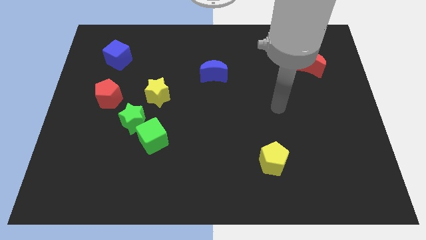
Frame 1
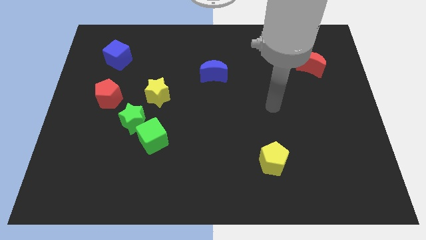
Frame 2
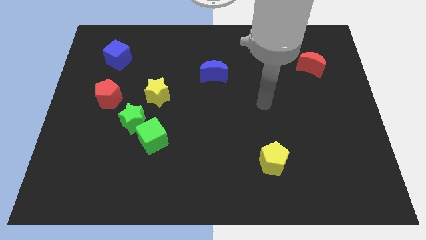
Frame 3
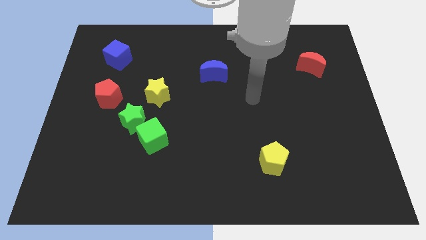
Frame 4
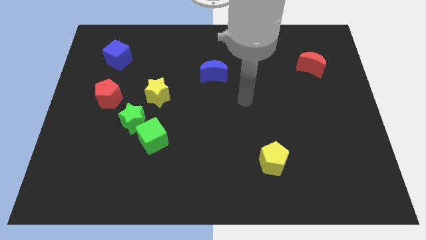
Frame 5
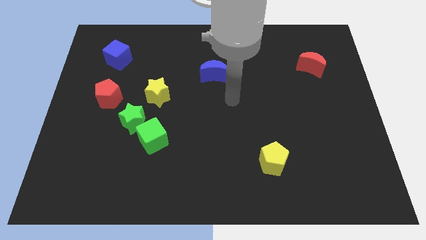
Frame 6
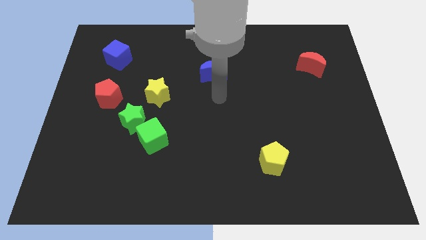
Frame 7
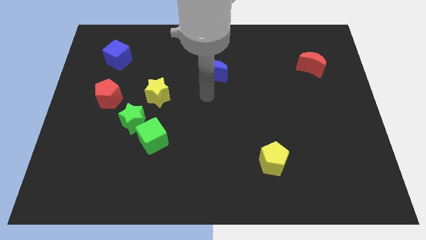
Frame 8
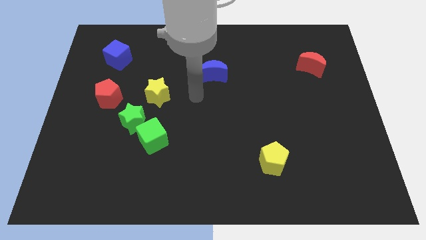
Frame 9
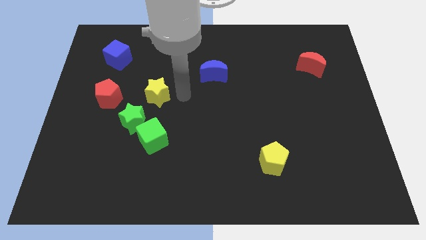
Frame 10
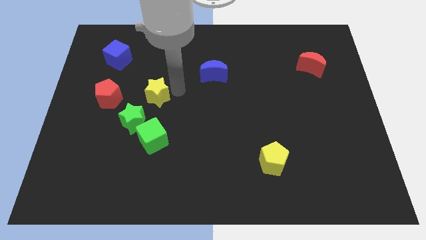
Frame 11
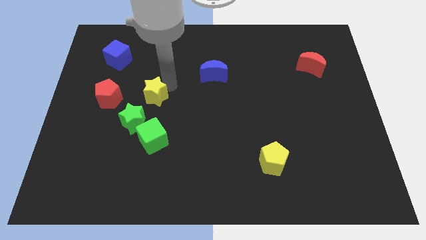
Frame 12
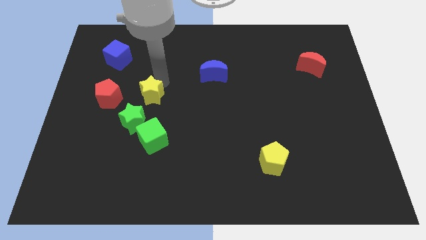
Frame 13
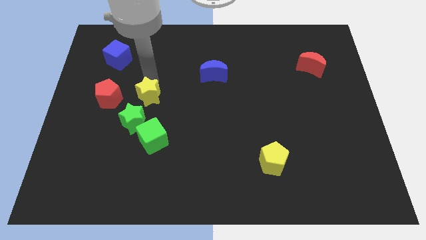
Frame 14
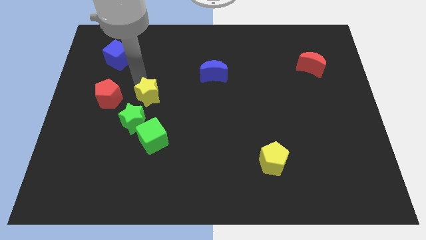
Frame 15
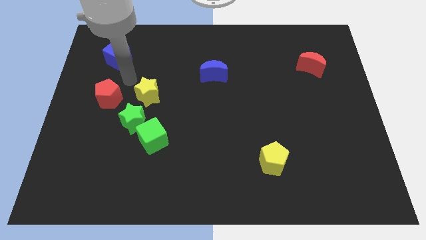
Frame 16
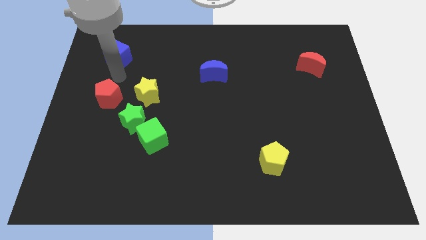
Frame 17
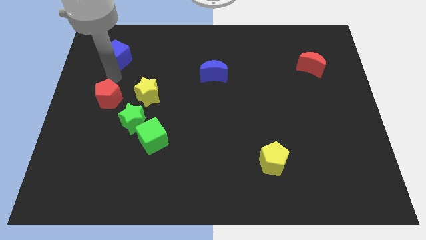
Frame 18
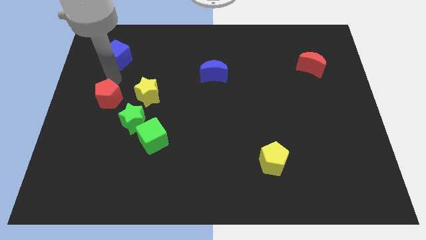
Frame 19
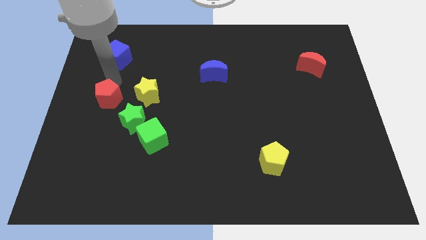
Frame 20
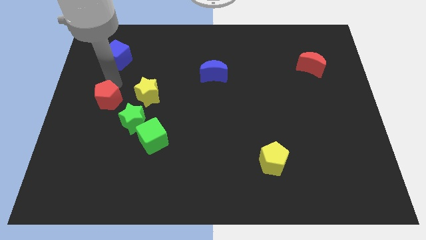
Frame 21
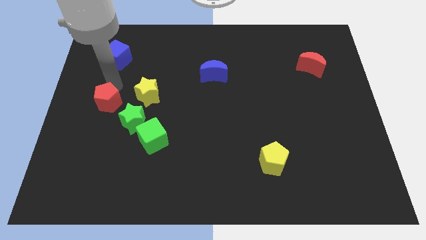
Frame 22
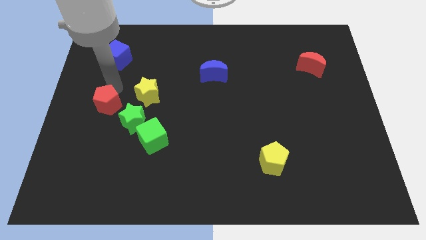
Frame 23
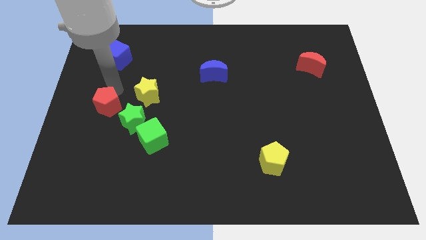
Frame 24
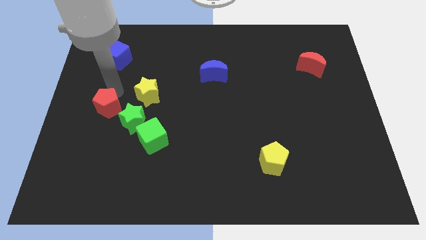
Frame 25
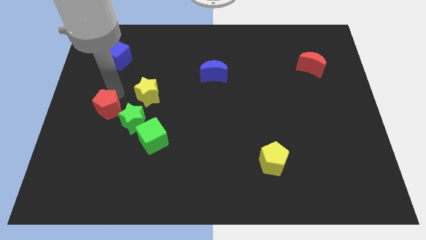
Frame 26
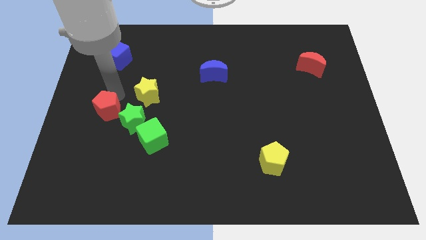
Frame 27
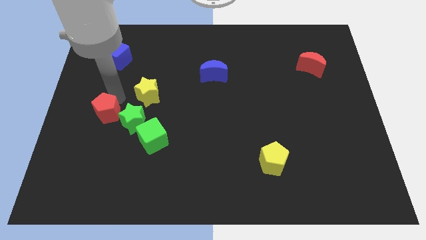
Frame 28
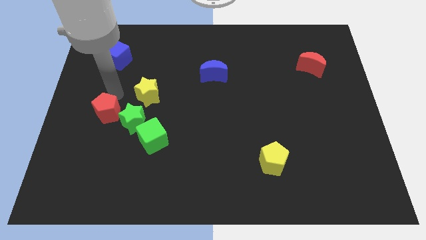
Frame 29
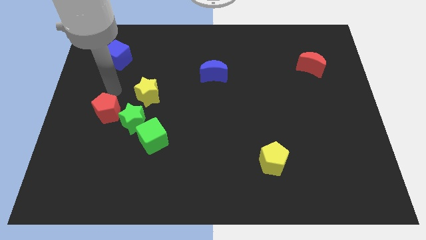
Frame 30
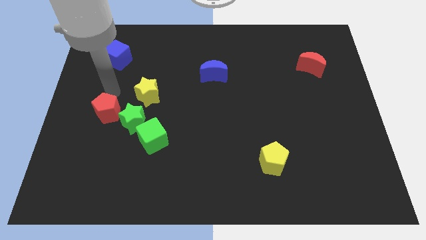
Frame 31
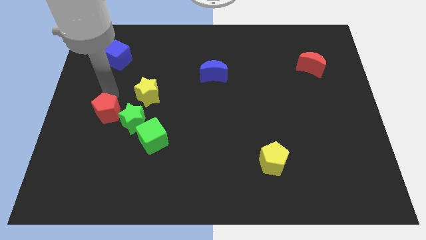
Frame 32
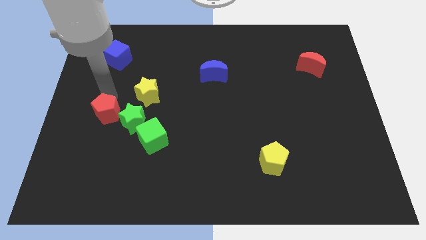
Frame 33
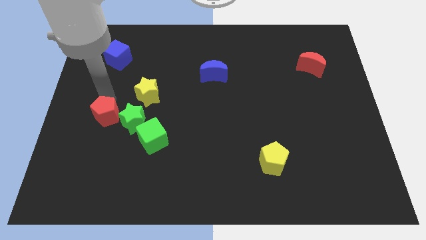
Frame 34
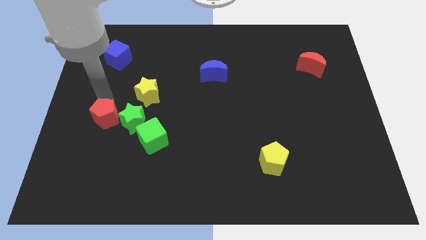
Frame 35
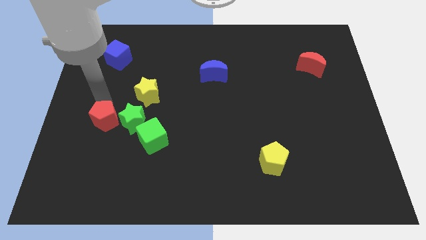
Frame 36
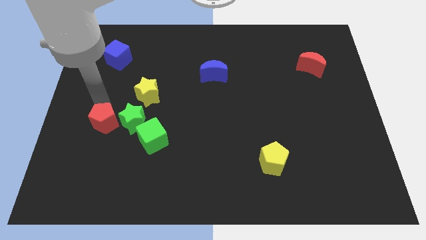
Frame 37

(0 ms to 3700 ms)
move the red pentagon slightly down

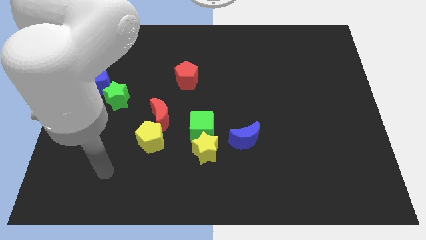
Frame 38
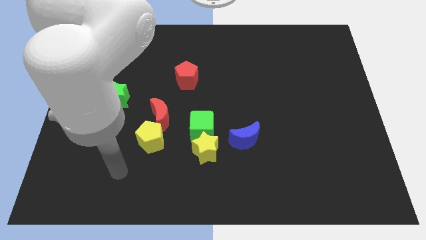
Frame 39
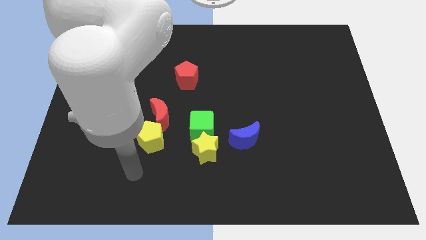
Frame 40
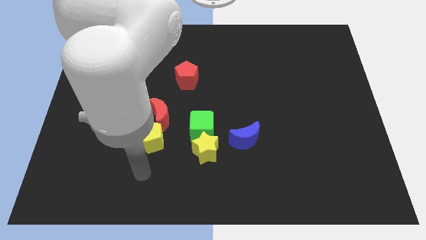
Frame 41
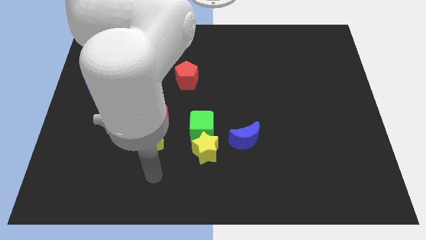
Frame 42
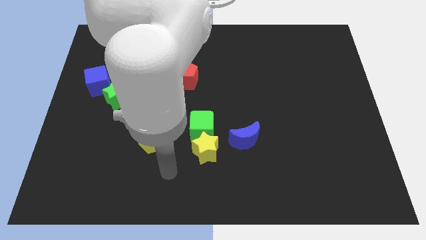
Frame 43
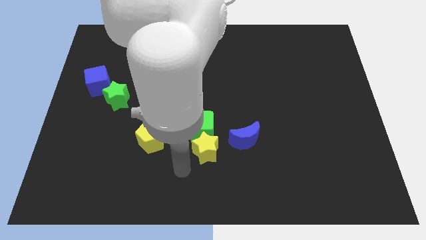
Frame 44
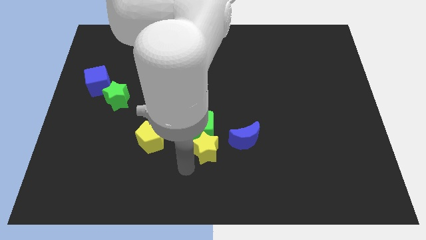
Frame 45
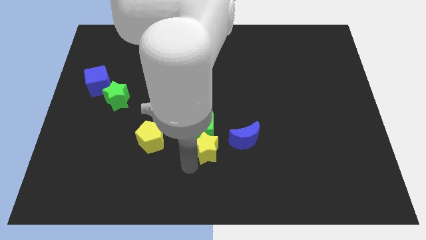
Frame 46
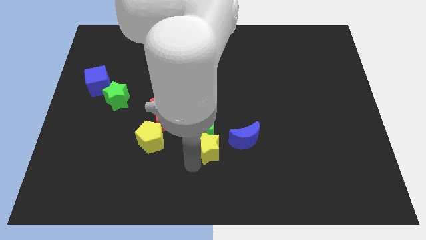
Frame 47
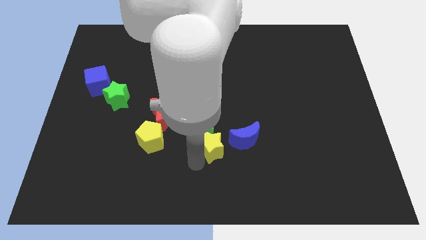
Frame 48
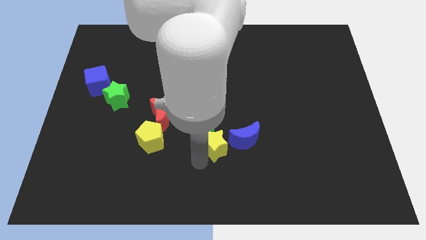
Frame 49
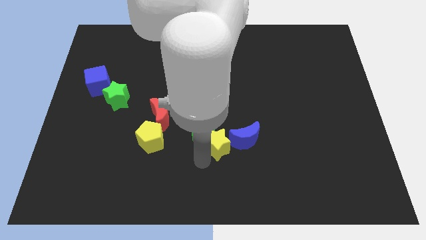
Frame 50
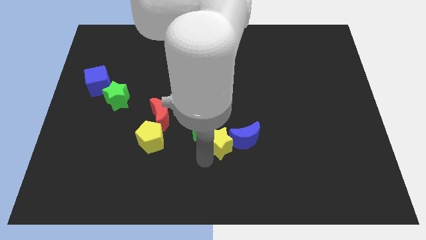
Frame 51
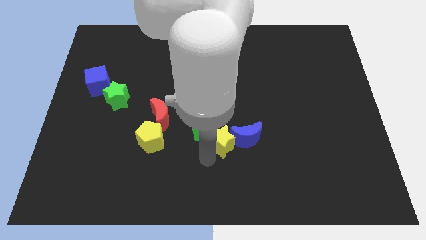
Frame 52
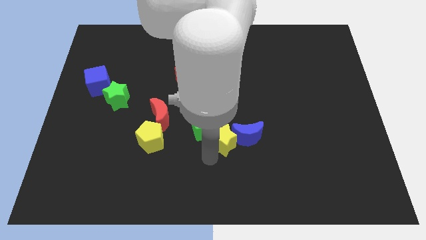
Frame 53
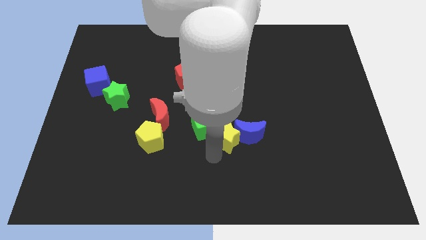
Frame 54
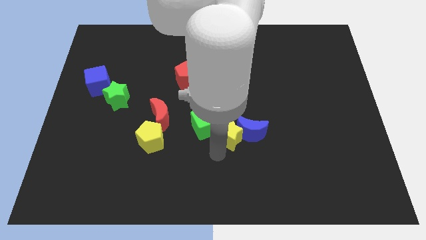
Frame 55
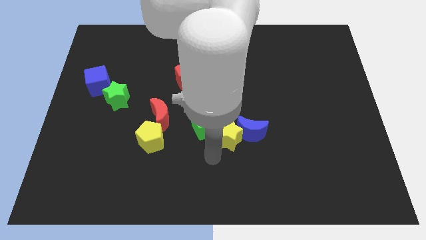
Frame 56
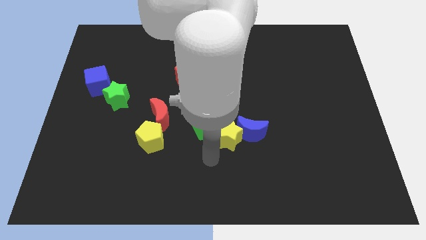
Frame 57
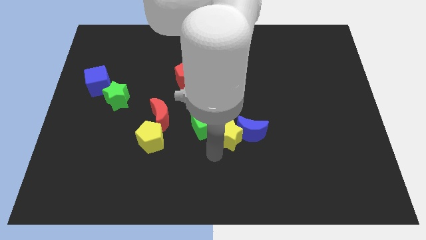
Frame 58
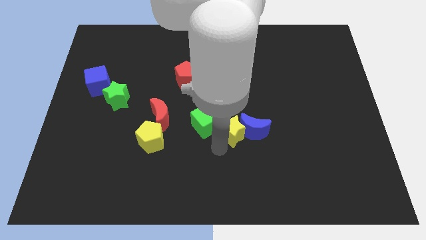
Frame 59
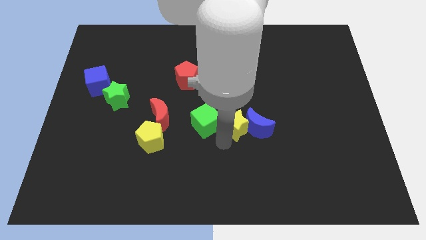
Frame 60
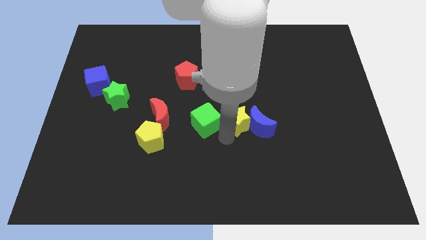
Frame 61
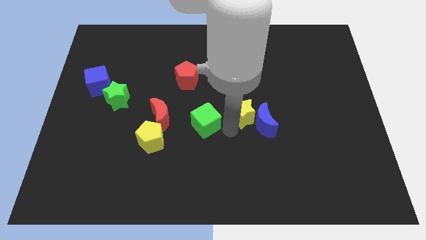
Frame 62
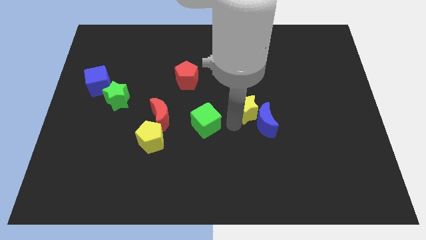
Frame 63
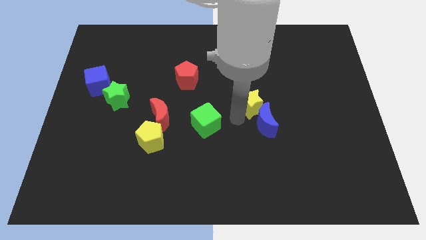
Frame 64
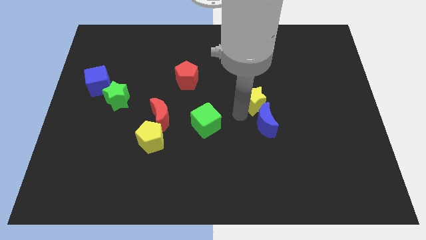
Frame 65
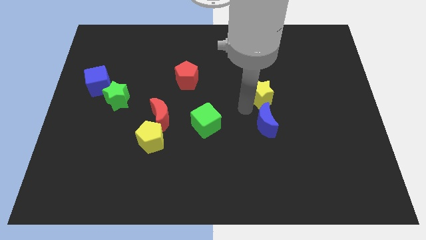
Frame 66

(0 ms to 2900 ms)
move the yellow star upwards and right

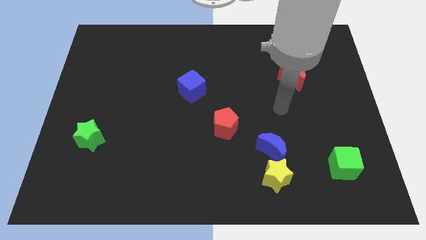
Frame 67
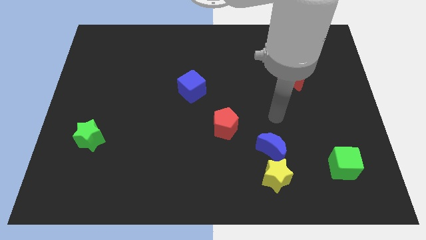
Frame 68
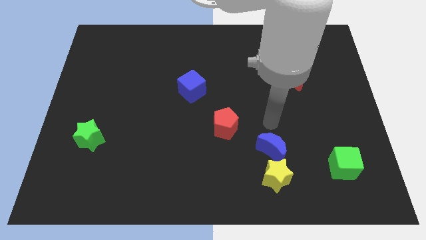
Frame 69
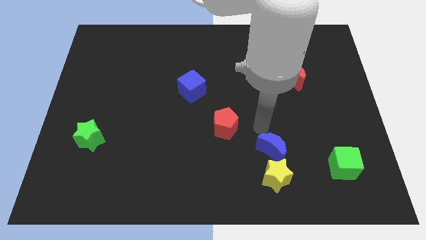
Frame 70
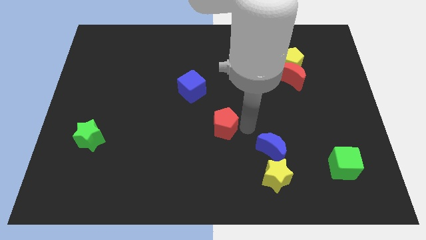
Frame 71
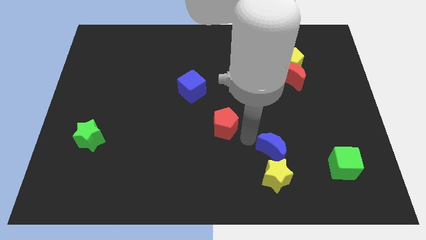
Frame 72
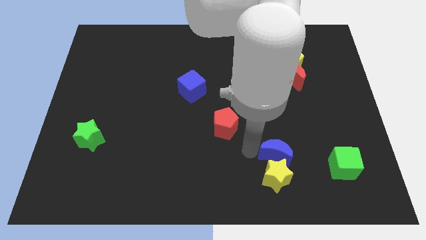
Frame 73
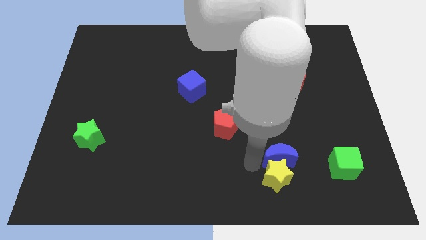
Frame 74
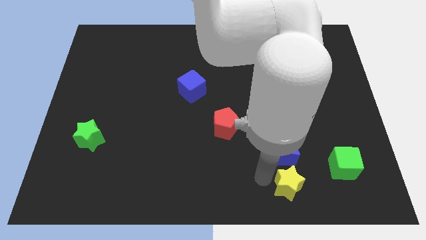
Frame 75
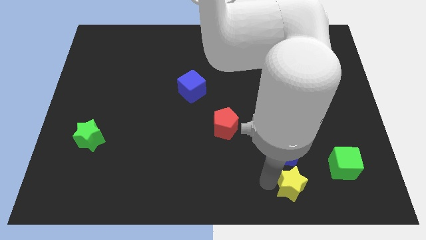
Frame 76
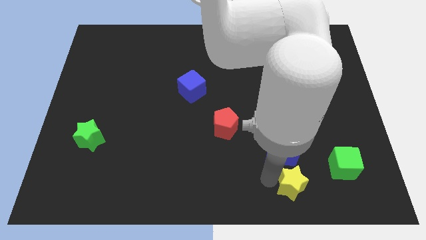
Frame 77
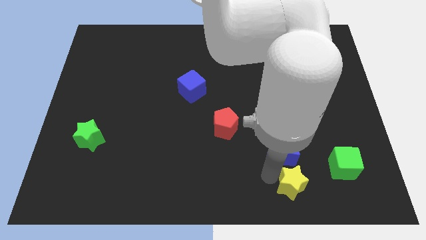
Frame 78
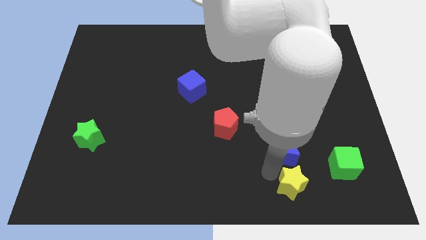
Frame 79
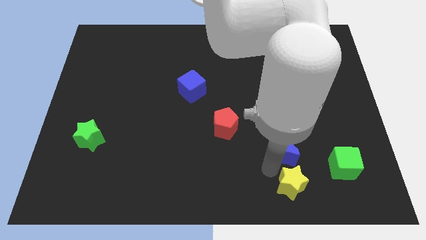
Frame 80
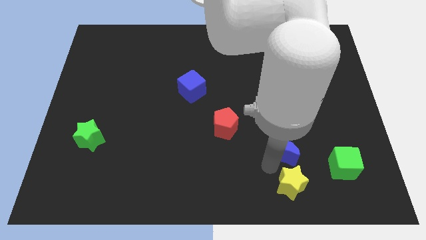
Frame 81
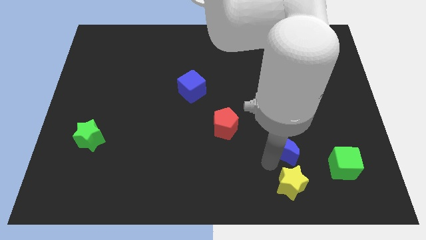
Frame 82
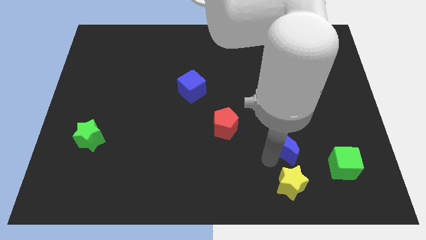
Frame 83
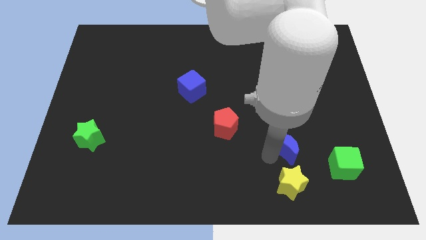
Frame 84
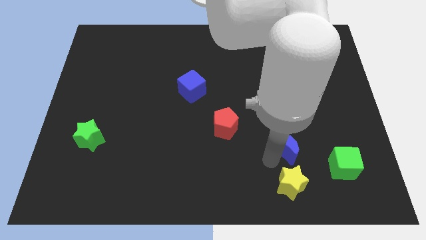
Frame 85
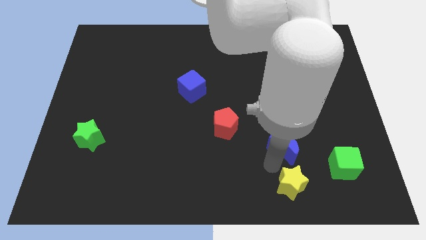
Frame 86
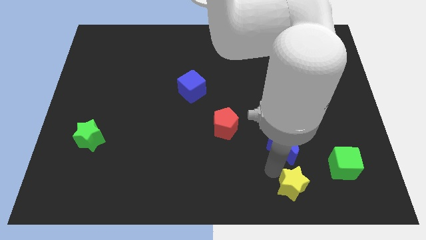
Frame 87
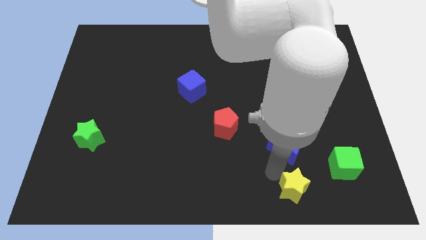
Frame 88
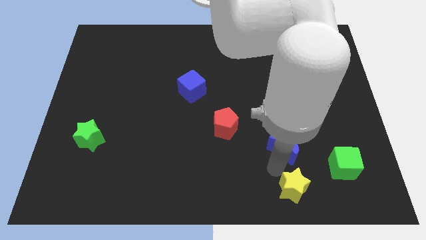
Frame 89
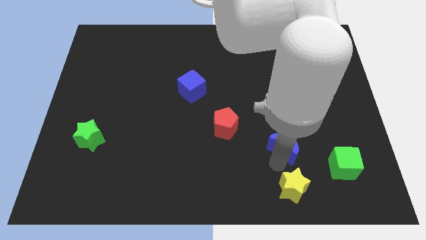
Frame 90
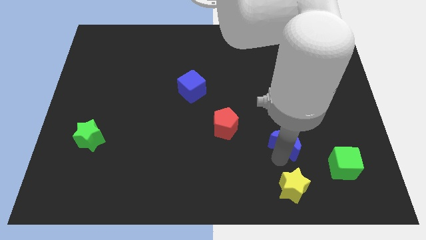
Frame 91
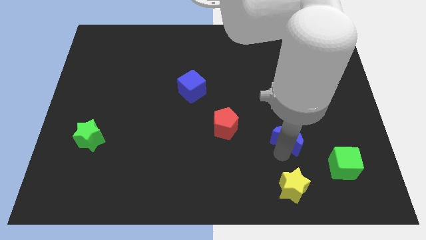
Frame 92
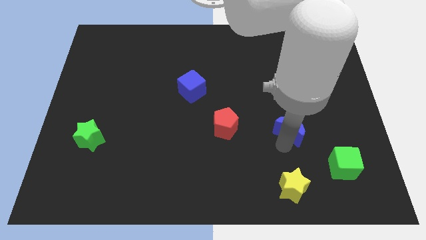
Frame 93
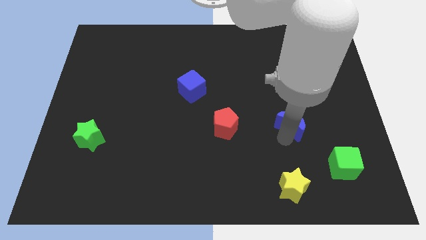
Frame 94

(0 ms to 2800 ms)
move the blue moon upwards and to the right diagonally slightly
